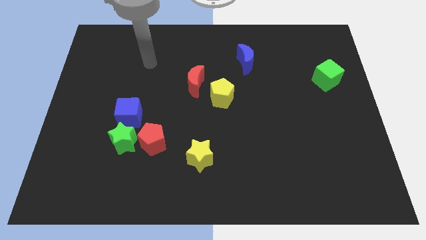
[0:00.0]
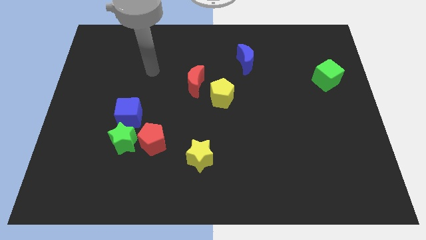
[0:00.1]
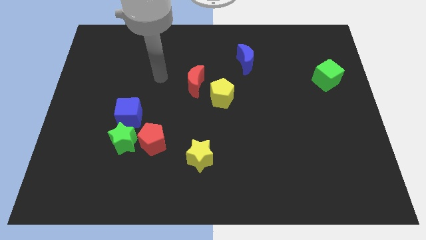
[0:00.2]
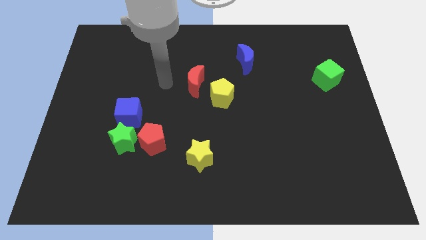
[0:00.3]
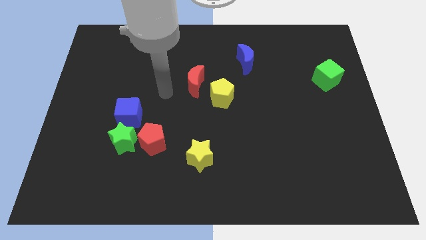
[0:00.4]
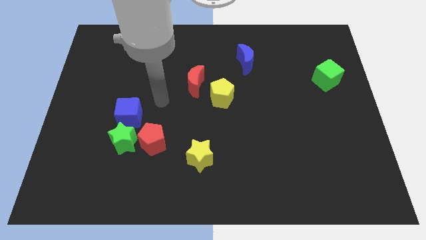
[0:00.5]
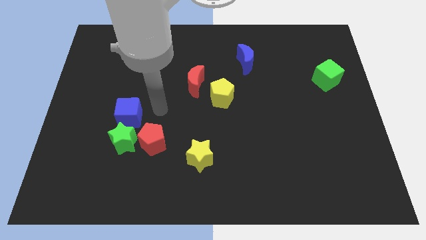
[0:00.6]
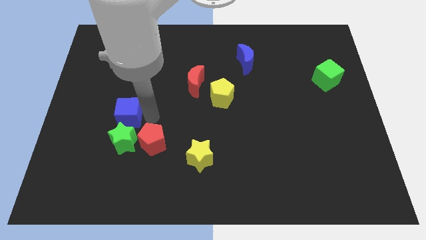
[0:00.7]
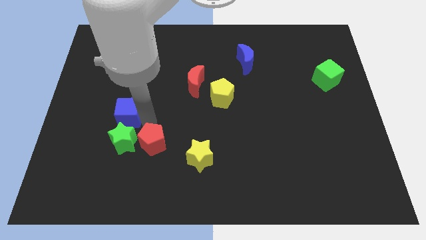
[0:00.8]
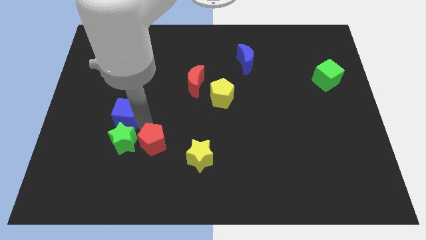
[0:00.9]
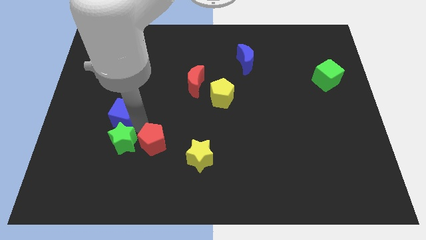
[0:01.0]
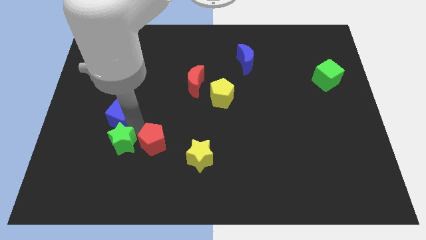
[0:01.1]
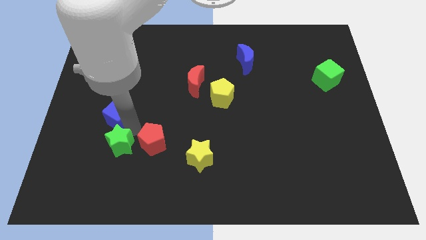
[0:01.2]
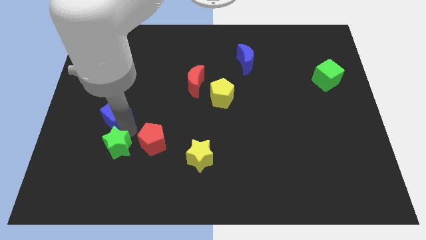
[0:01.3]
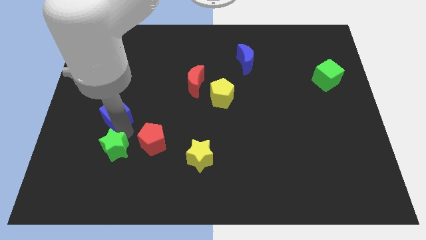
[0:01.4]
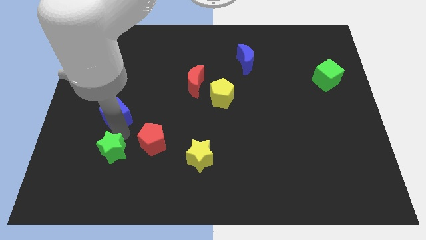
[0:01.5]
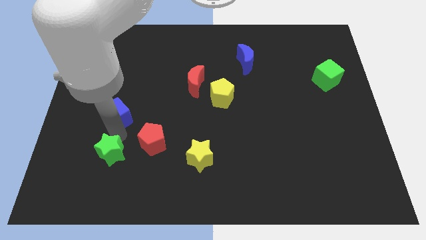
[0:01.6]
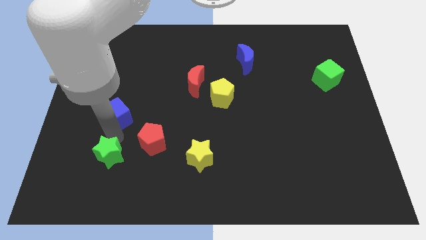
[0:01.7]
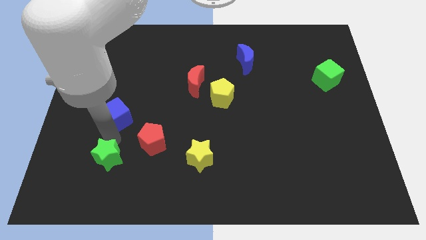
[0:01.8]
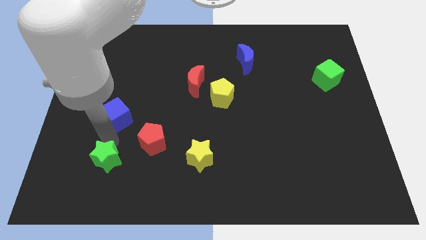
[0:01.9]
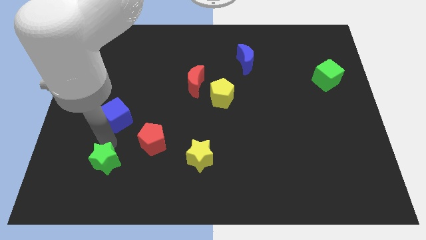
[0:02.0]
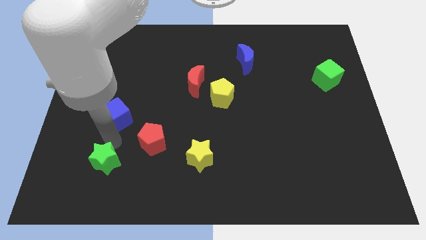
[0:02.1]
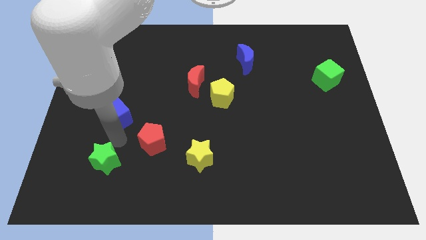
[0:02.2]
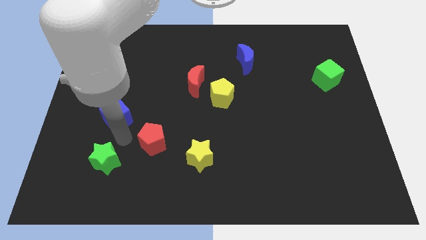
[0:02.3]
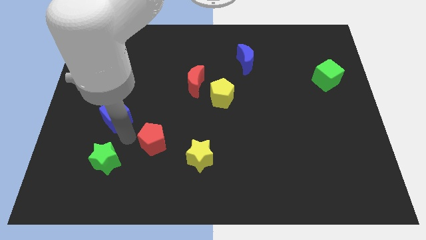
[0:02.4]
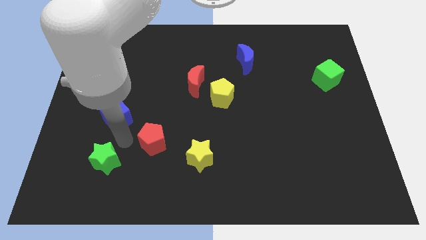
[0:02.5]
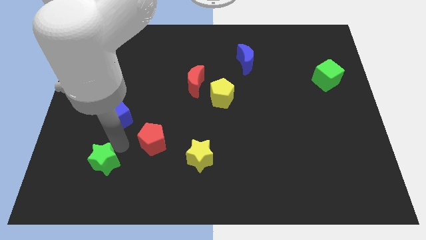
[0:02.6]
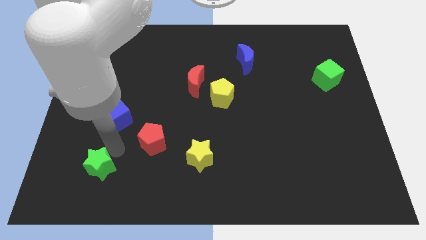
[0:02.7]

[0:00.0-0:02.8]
move the green star away from the red pentagon and blue cube

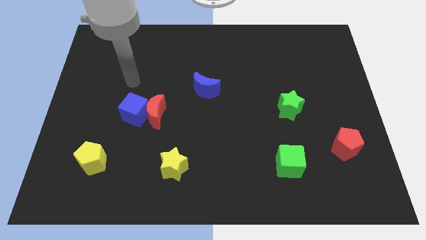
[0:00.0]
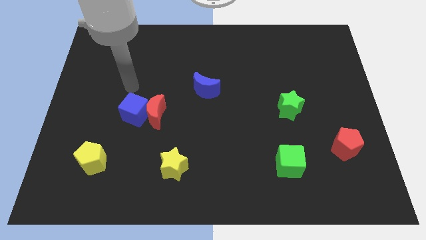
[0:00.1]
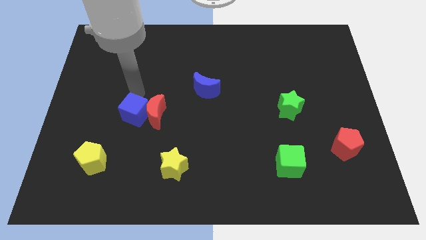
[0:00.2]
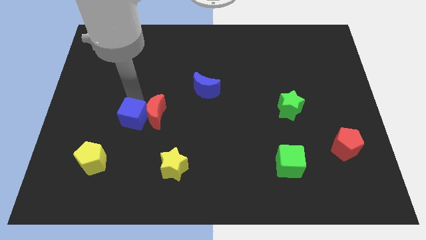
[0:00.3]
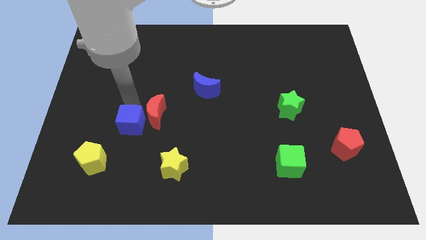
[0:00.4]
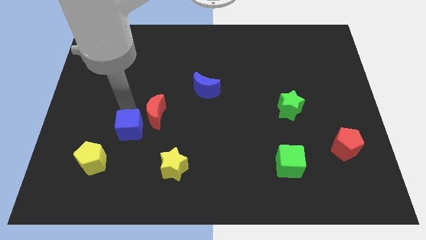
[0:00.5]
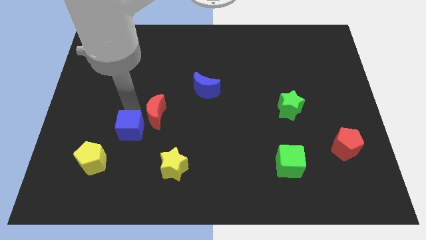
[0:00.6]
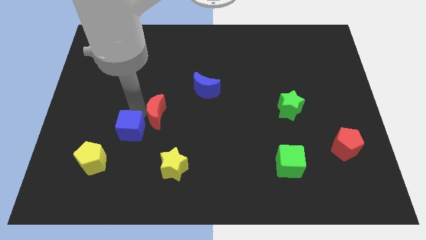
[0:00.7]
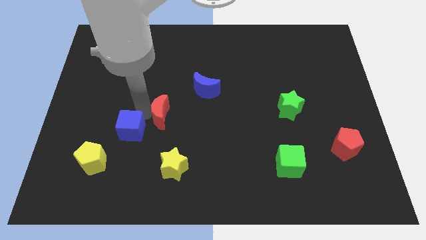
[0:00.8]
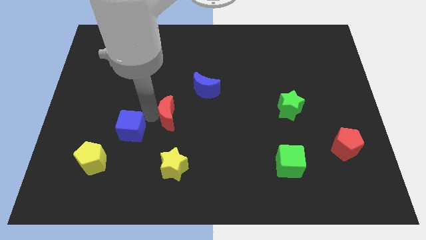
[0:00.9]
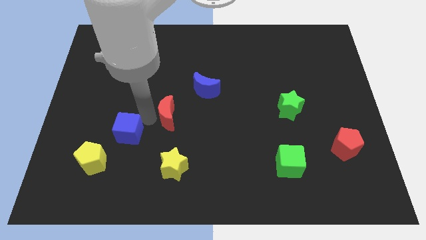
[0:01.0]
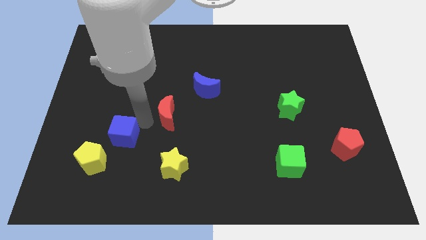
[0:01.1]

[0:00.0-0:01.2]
separate the red moon from the blue cube

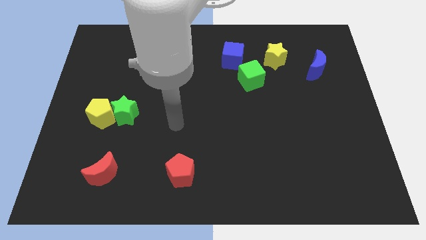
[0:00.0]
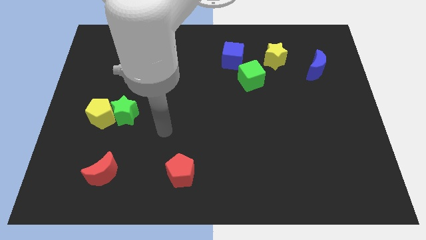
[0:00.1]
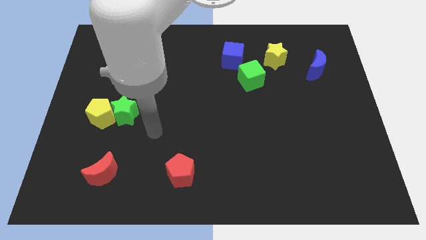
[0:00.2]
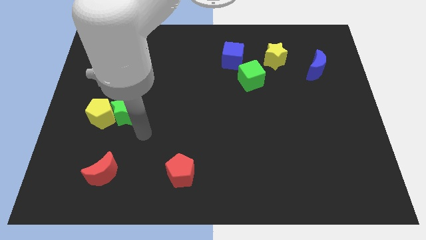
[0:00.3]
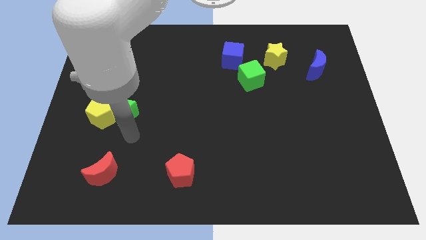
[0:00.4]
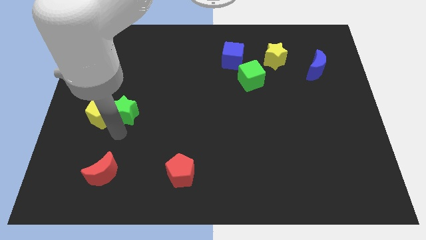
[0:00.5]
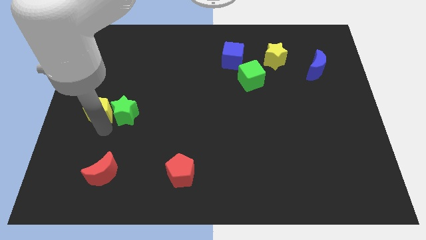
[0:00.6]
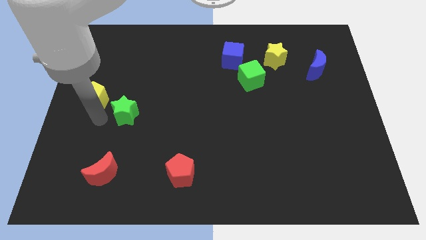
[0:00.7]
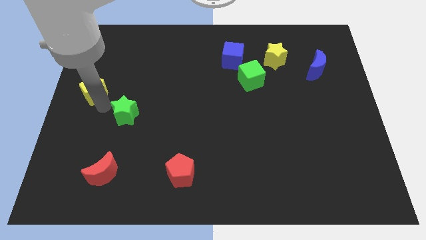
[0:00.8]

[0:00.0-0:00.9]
pull the green star apart from the yellow pentagon

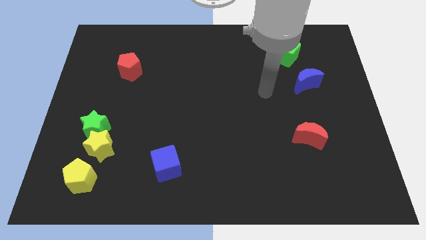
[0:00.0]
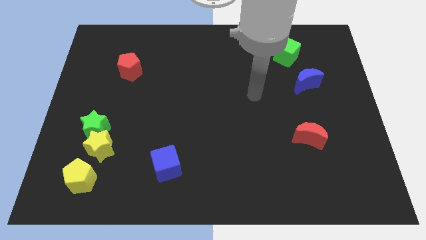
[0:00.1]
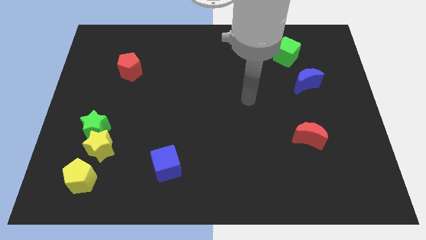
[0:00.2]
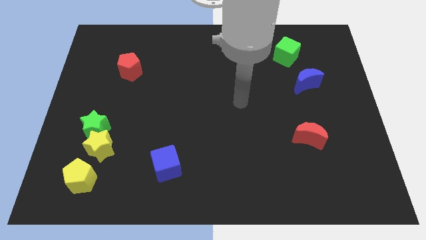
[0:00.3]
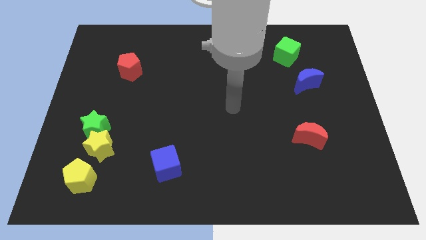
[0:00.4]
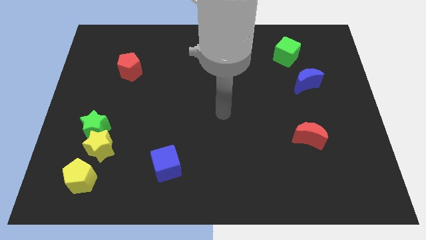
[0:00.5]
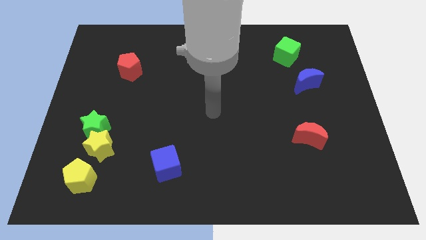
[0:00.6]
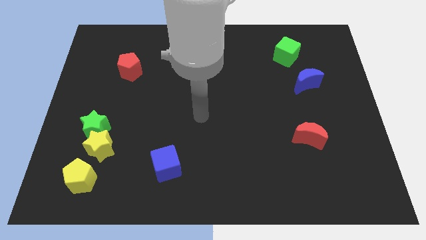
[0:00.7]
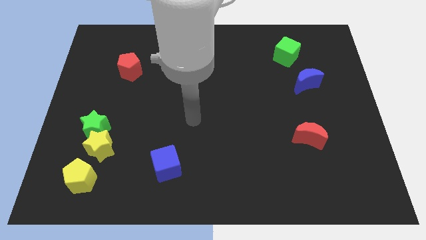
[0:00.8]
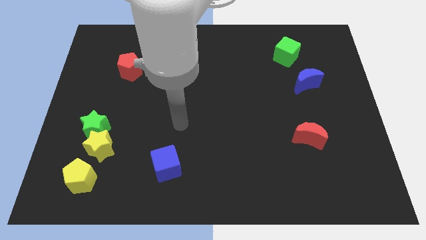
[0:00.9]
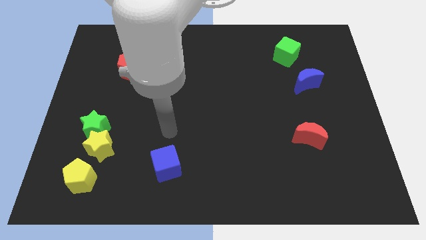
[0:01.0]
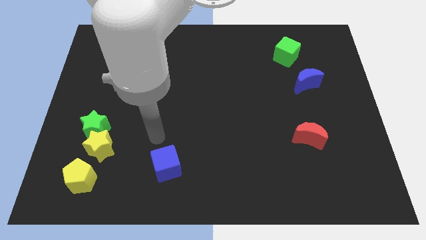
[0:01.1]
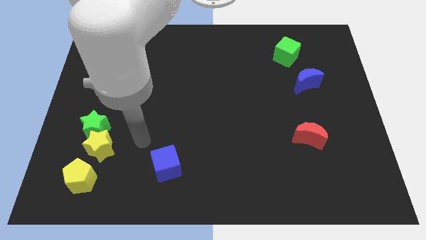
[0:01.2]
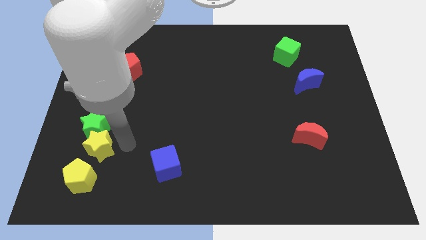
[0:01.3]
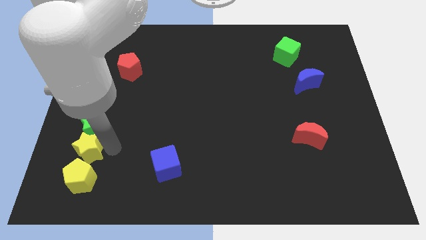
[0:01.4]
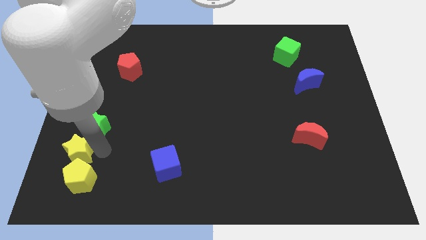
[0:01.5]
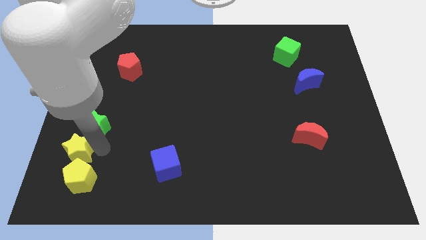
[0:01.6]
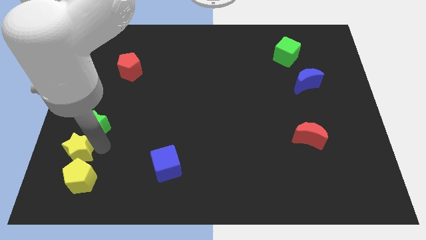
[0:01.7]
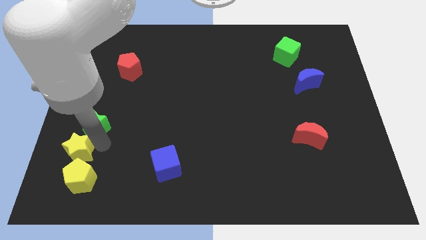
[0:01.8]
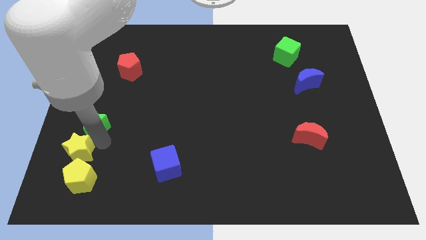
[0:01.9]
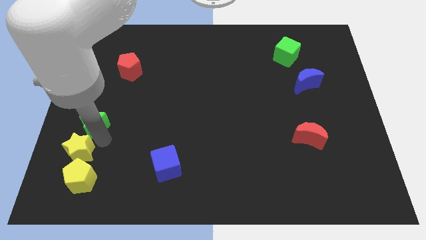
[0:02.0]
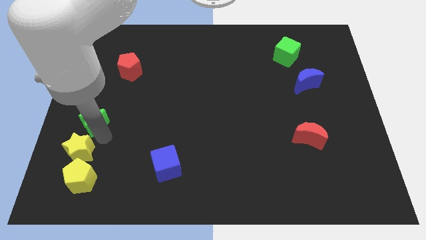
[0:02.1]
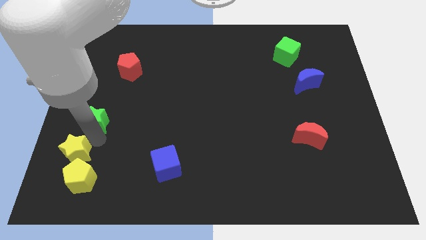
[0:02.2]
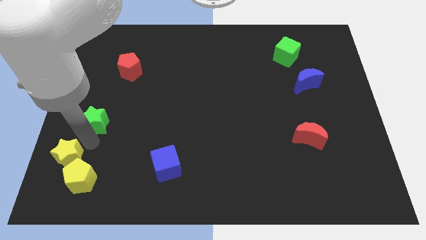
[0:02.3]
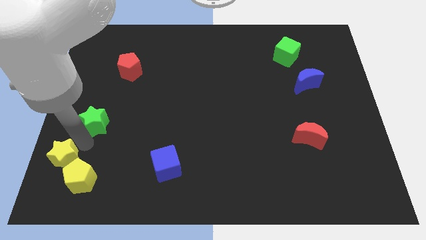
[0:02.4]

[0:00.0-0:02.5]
move the green star away from the yellow star

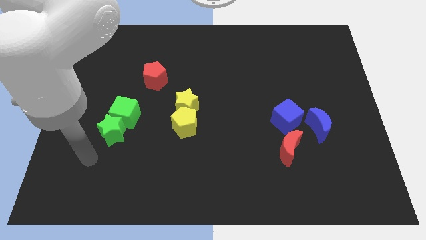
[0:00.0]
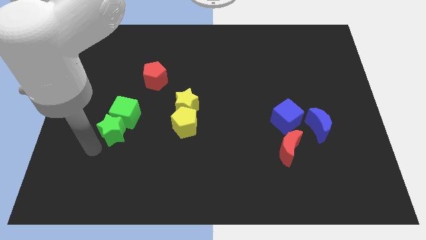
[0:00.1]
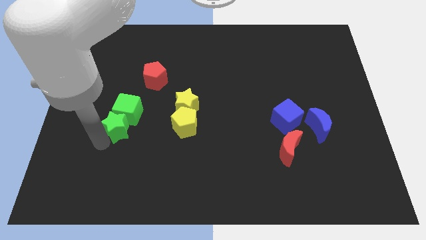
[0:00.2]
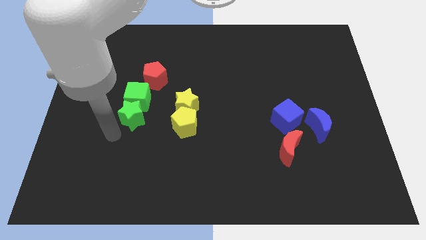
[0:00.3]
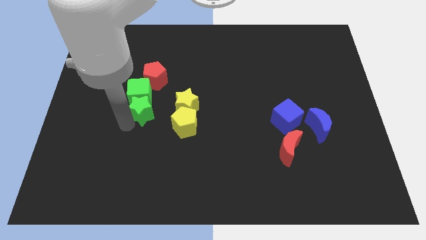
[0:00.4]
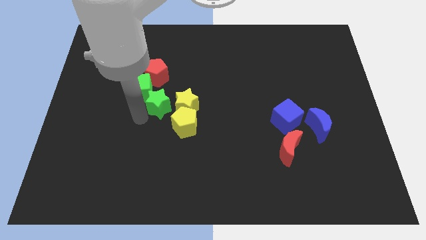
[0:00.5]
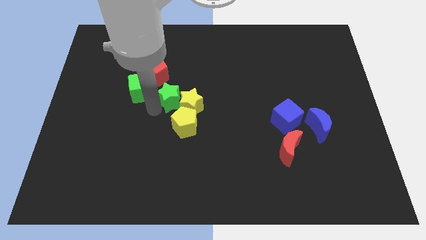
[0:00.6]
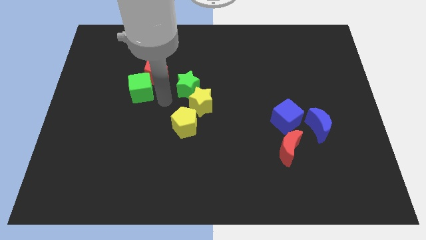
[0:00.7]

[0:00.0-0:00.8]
pull the green cube apart from the green star

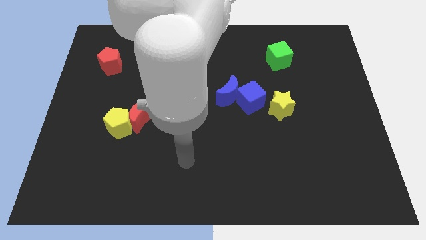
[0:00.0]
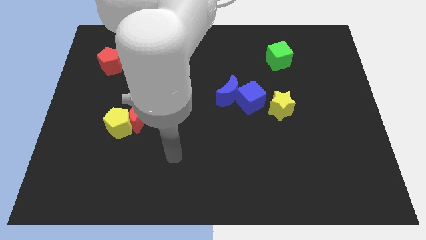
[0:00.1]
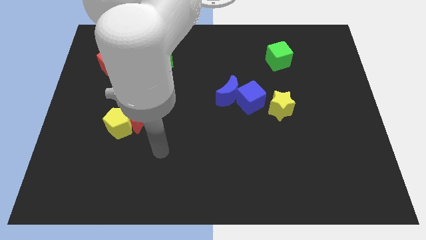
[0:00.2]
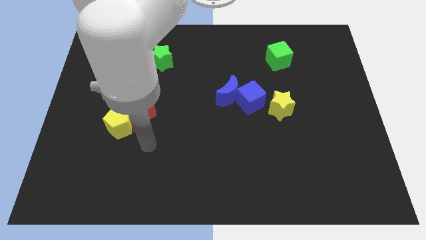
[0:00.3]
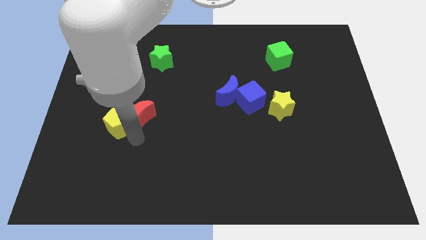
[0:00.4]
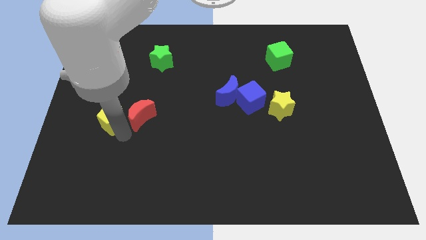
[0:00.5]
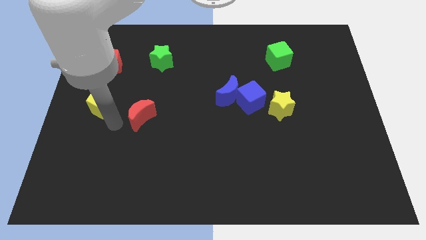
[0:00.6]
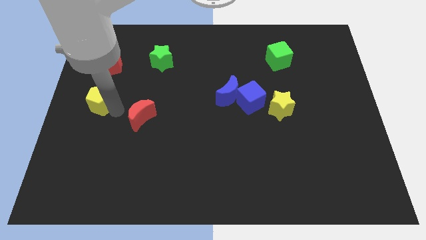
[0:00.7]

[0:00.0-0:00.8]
pull the red moon apart from the yellow pentagon

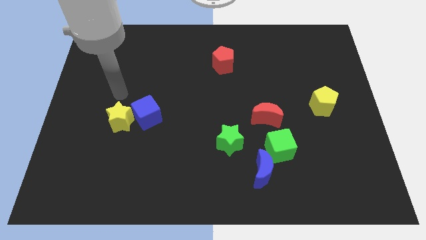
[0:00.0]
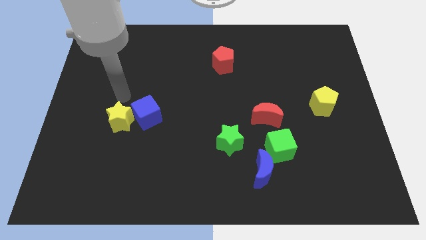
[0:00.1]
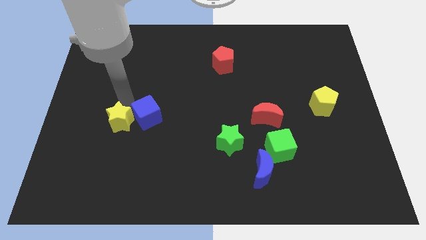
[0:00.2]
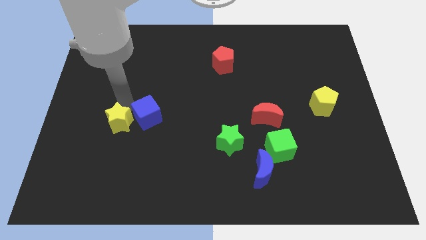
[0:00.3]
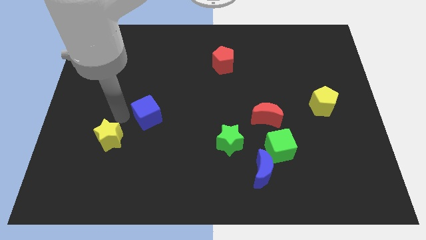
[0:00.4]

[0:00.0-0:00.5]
pull the blue cube apart from the yellow star
